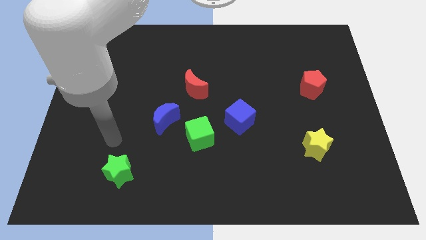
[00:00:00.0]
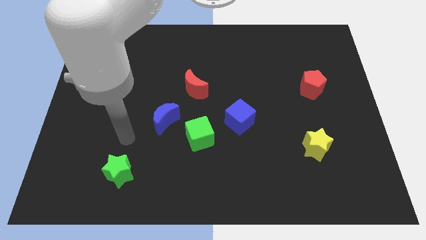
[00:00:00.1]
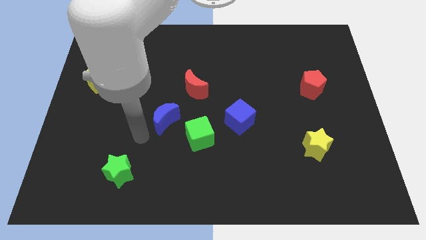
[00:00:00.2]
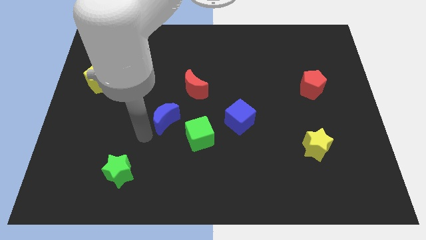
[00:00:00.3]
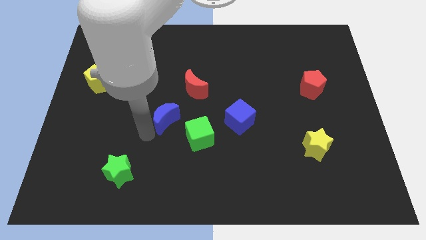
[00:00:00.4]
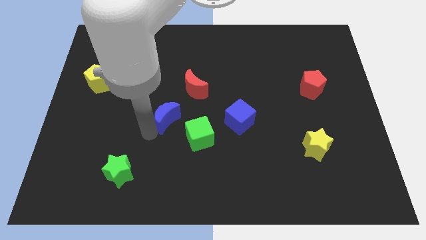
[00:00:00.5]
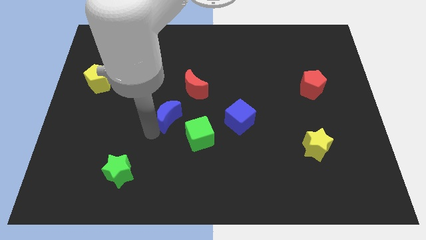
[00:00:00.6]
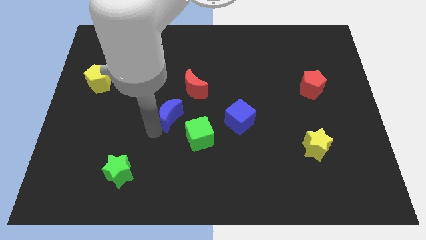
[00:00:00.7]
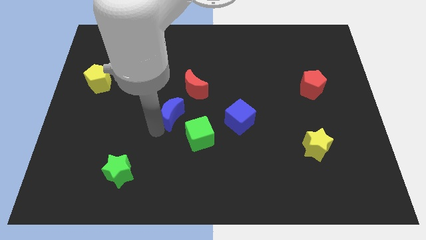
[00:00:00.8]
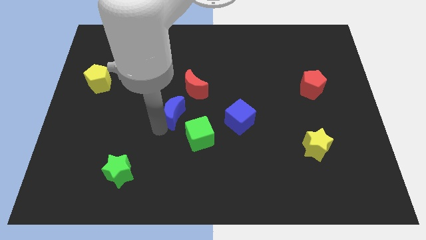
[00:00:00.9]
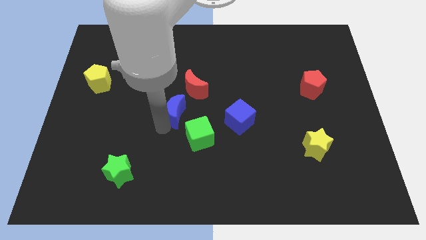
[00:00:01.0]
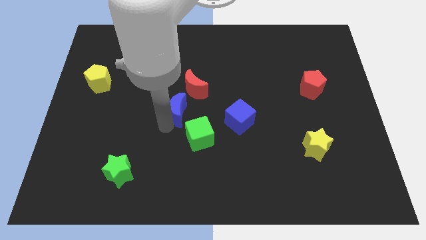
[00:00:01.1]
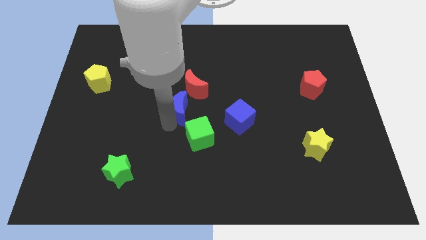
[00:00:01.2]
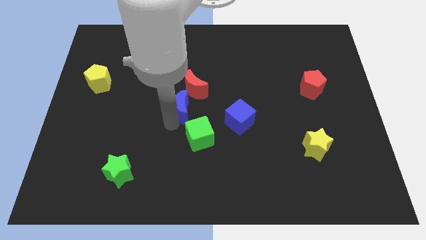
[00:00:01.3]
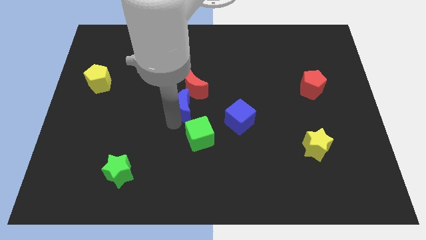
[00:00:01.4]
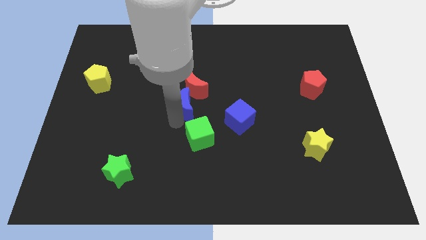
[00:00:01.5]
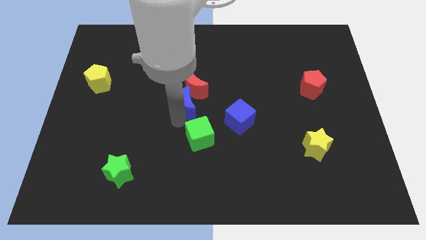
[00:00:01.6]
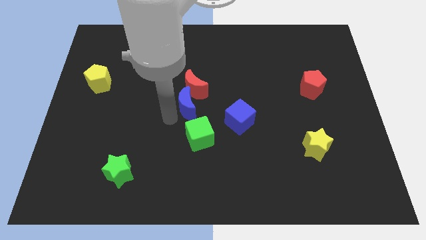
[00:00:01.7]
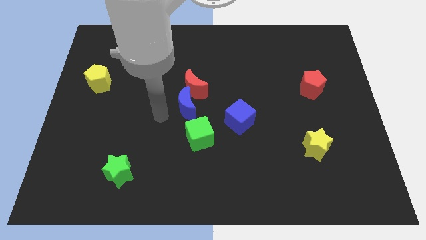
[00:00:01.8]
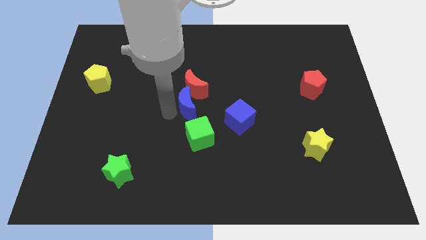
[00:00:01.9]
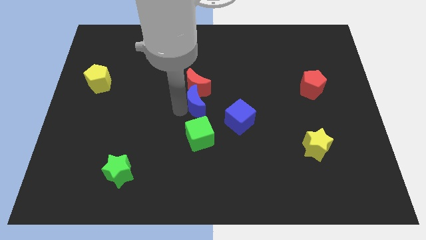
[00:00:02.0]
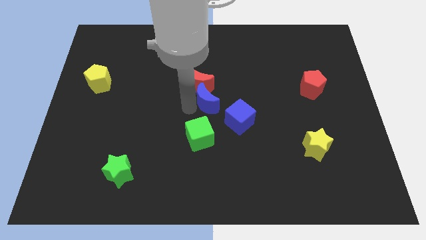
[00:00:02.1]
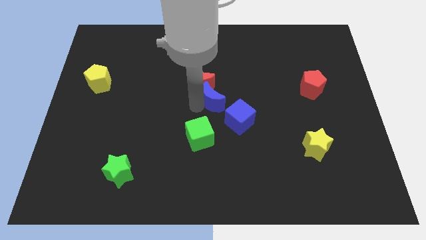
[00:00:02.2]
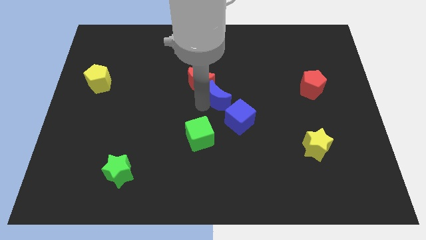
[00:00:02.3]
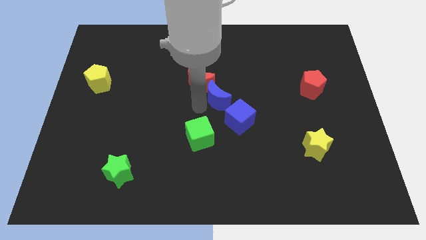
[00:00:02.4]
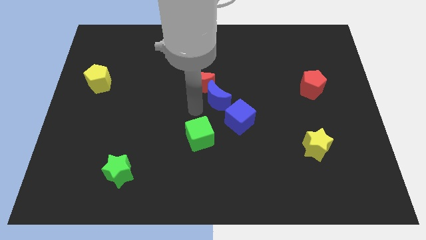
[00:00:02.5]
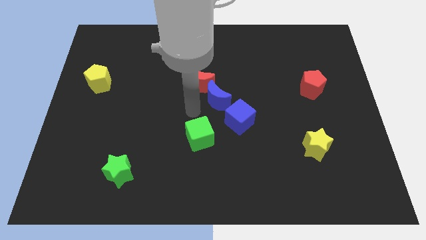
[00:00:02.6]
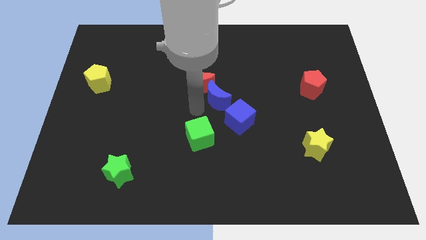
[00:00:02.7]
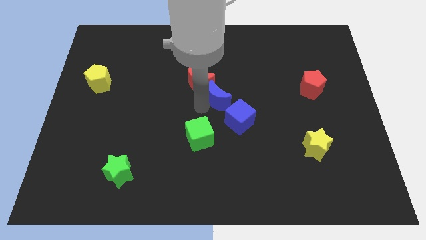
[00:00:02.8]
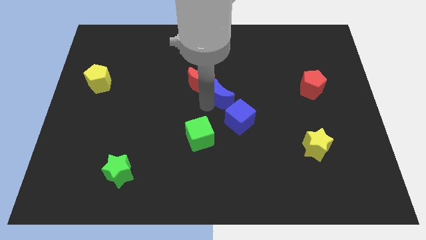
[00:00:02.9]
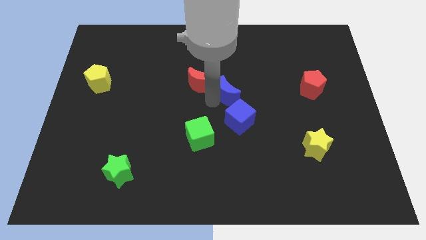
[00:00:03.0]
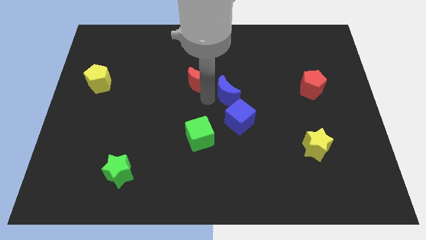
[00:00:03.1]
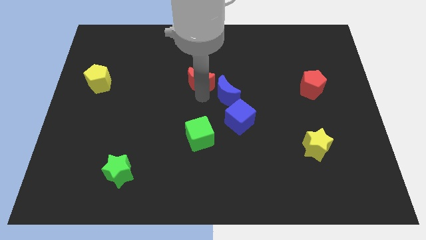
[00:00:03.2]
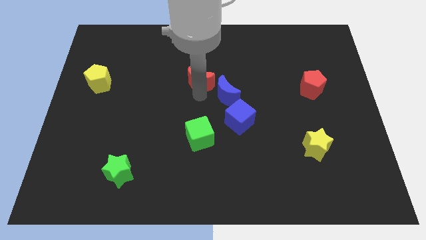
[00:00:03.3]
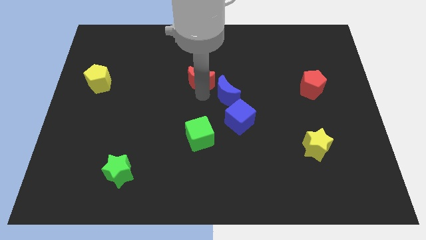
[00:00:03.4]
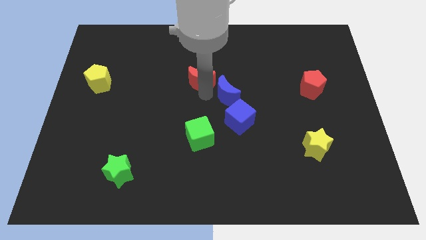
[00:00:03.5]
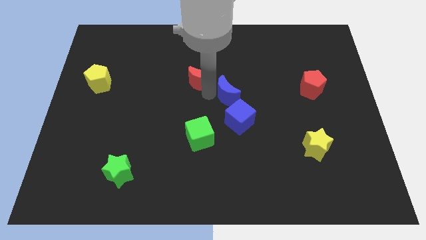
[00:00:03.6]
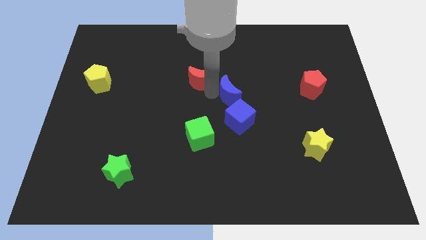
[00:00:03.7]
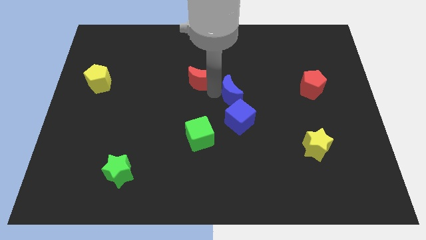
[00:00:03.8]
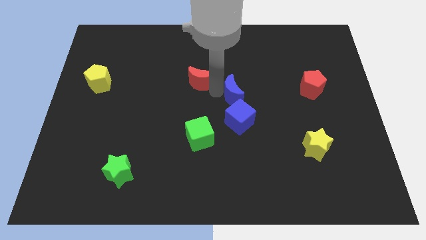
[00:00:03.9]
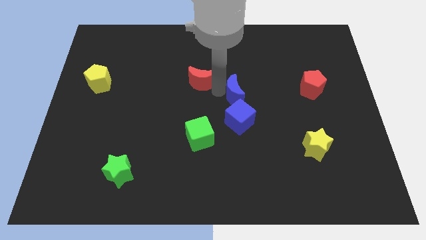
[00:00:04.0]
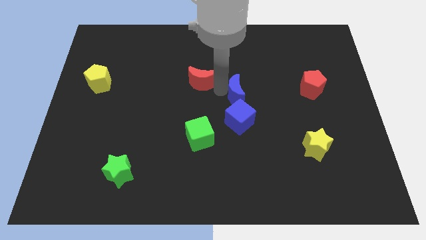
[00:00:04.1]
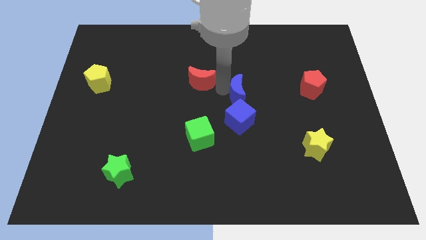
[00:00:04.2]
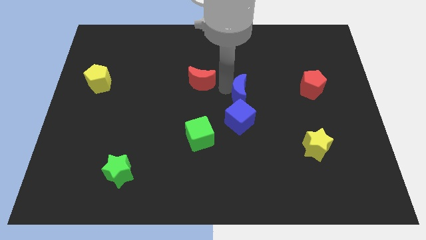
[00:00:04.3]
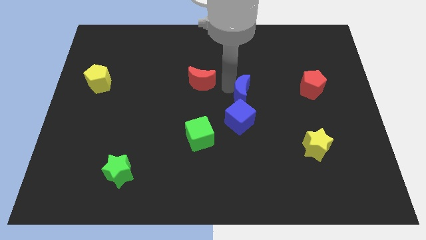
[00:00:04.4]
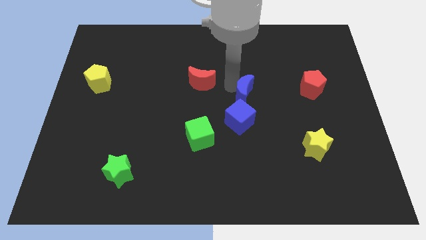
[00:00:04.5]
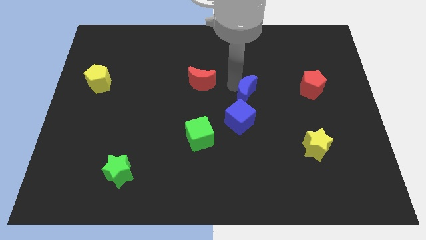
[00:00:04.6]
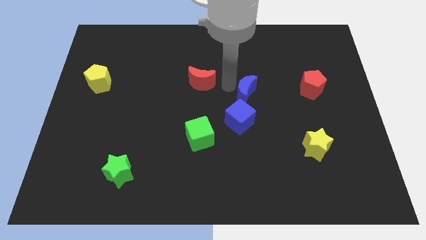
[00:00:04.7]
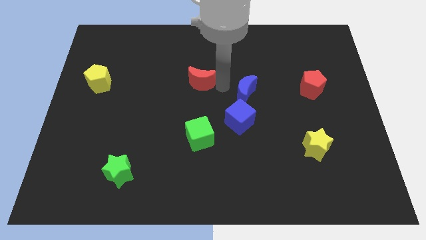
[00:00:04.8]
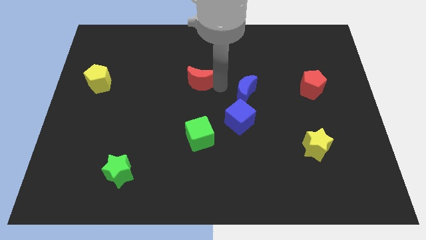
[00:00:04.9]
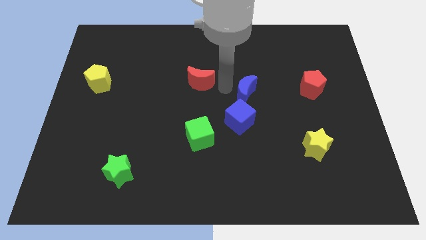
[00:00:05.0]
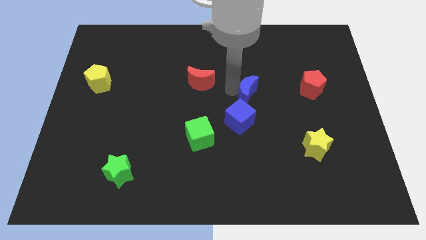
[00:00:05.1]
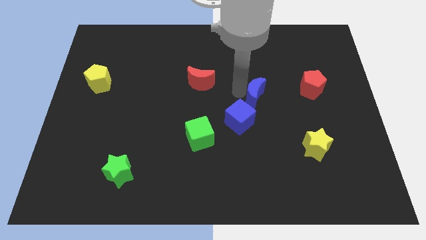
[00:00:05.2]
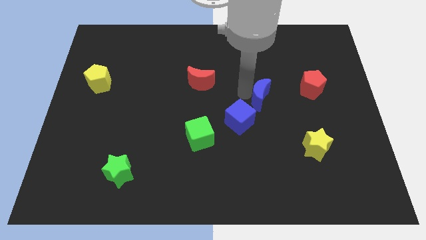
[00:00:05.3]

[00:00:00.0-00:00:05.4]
push the blue moon to the right

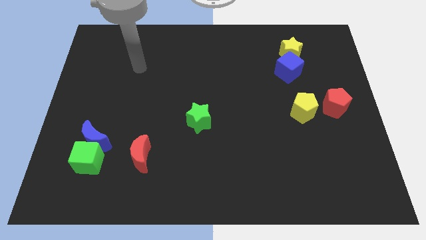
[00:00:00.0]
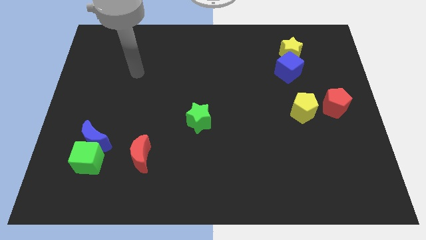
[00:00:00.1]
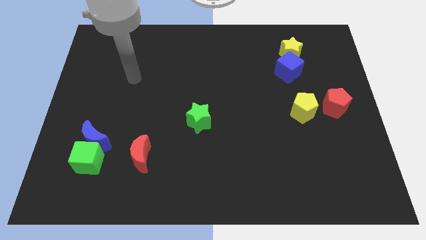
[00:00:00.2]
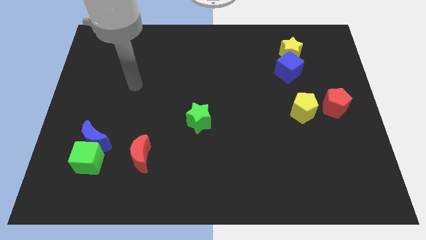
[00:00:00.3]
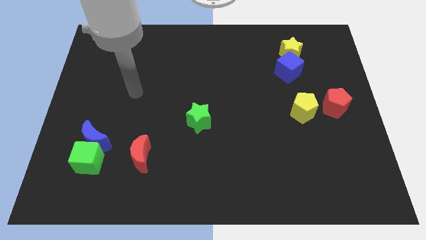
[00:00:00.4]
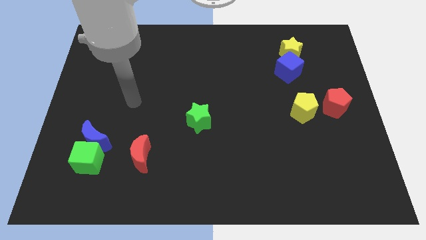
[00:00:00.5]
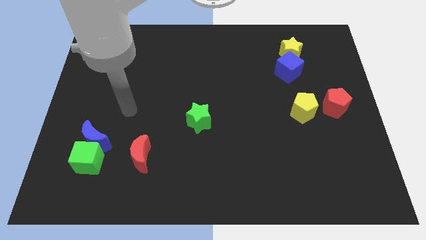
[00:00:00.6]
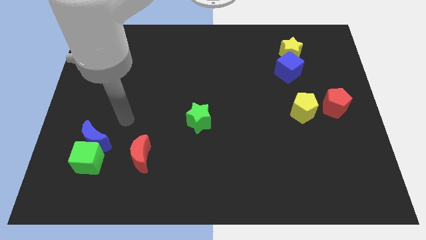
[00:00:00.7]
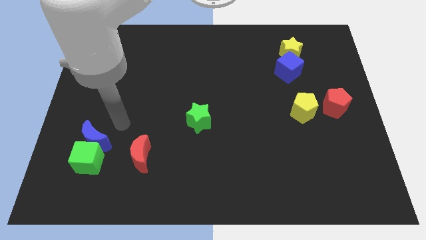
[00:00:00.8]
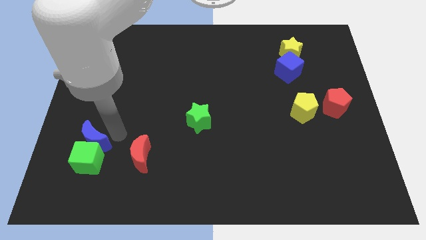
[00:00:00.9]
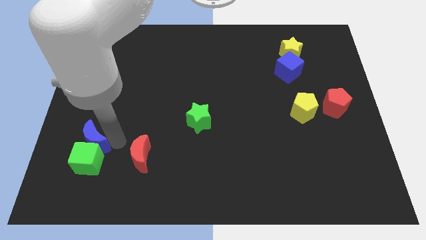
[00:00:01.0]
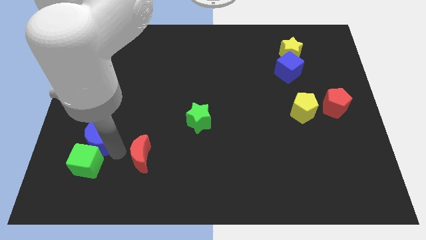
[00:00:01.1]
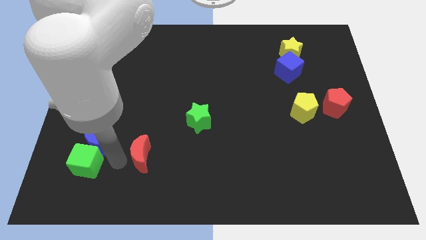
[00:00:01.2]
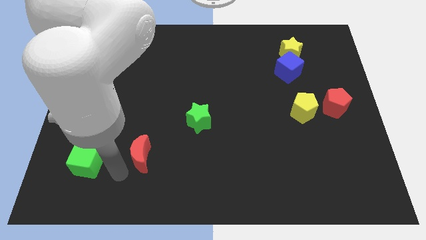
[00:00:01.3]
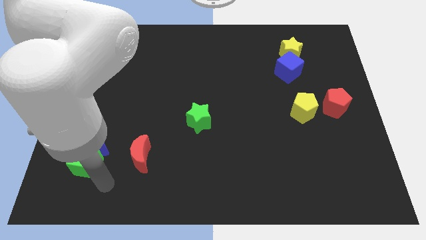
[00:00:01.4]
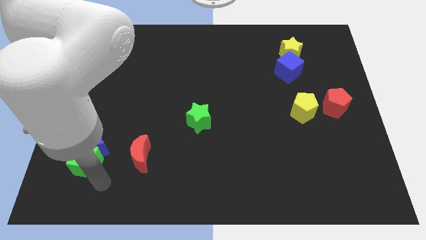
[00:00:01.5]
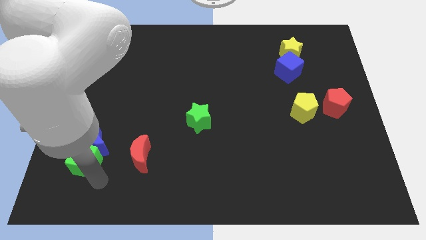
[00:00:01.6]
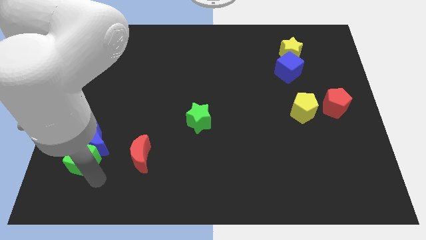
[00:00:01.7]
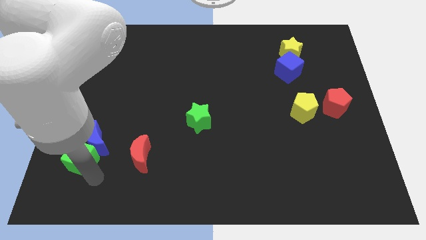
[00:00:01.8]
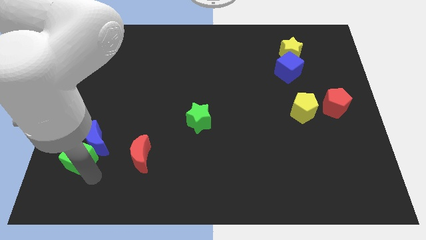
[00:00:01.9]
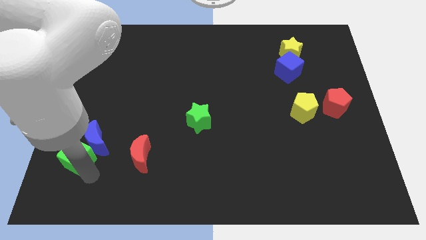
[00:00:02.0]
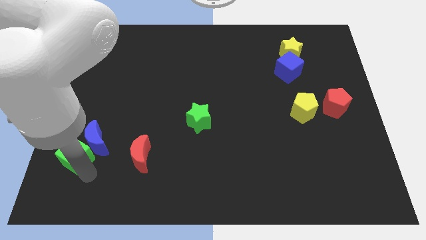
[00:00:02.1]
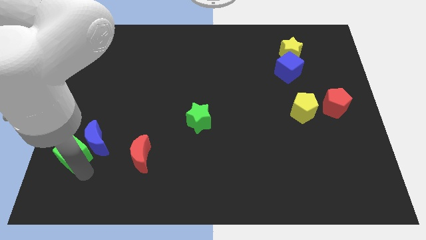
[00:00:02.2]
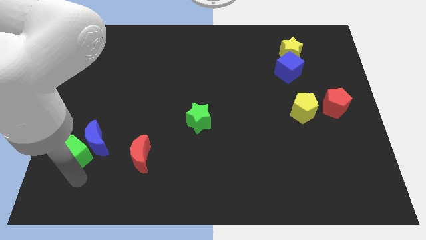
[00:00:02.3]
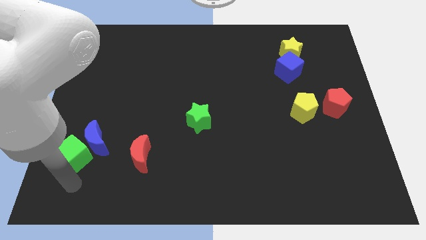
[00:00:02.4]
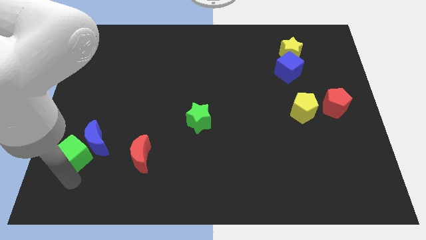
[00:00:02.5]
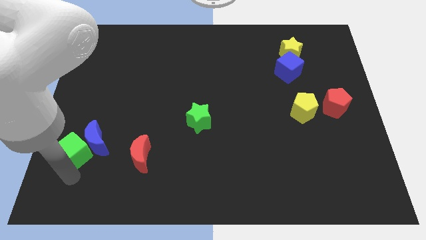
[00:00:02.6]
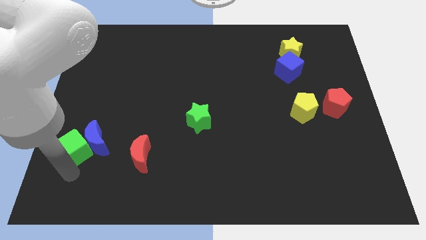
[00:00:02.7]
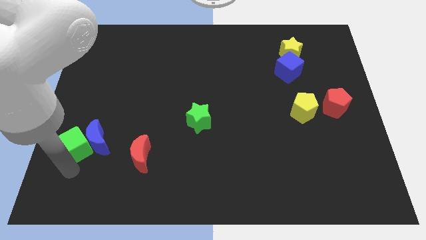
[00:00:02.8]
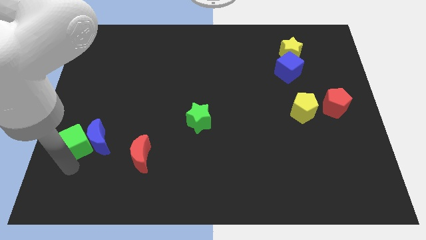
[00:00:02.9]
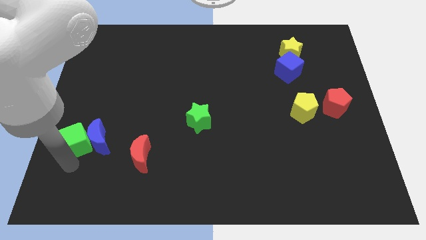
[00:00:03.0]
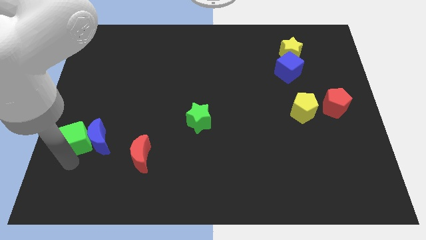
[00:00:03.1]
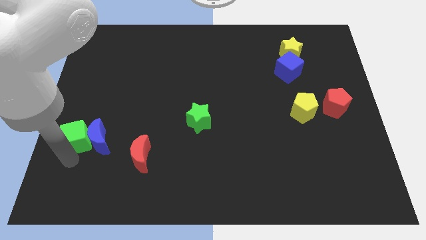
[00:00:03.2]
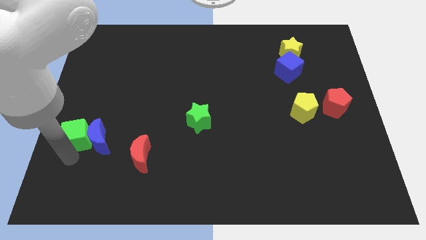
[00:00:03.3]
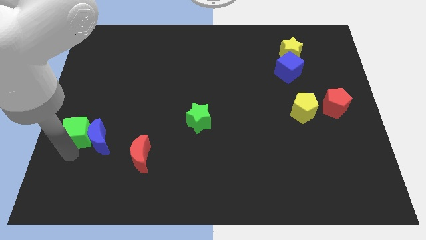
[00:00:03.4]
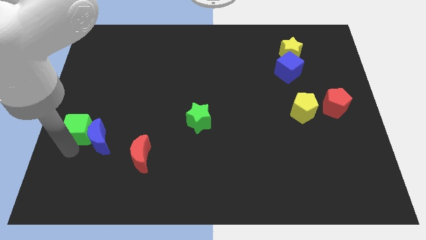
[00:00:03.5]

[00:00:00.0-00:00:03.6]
move the green cube slightly up
